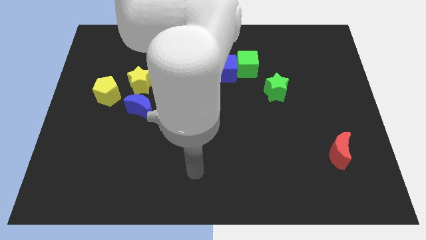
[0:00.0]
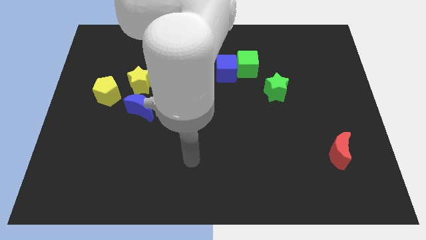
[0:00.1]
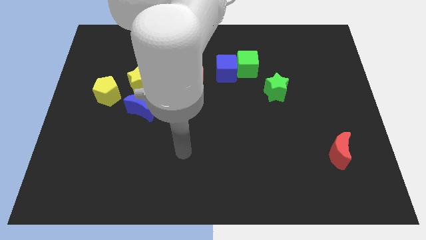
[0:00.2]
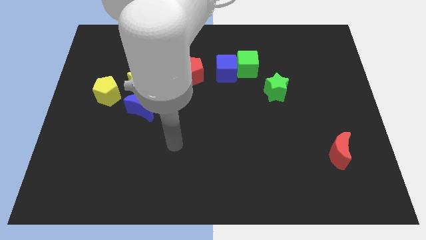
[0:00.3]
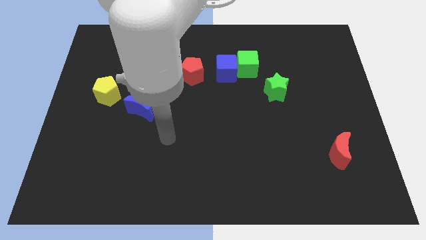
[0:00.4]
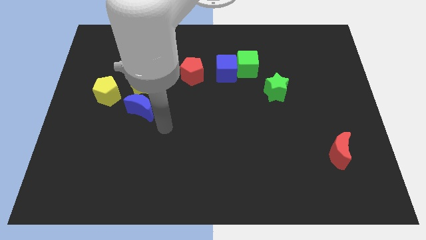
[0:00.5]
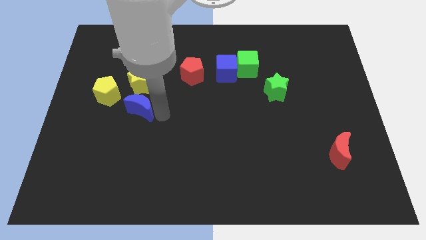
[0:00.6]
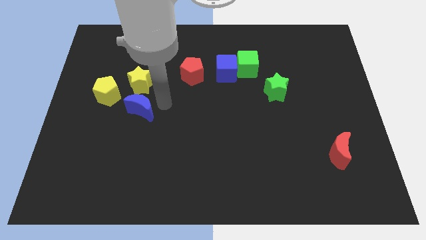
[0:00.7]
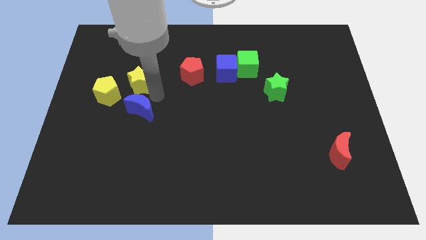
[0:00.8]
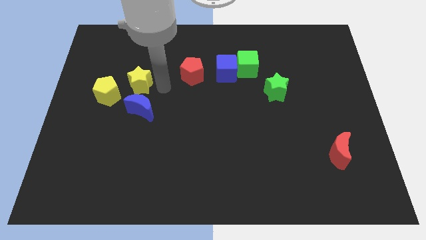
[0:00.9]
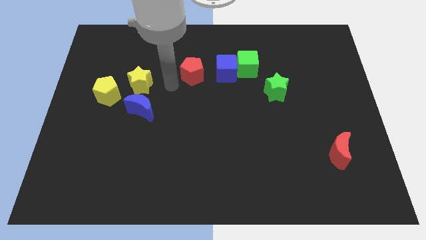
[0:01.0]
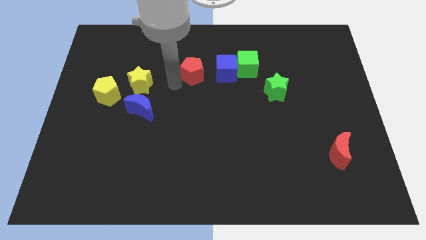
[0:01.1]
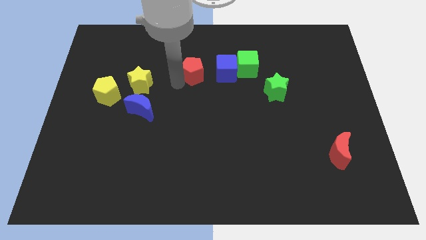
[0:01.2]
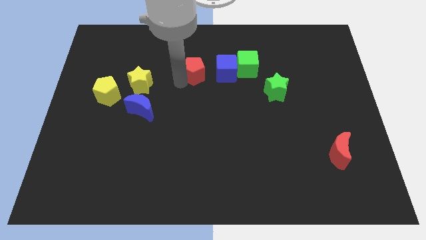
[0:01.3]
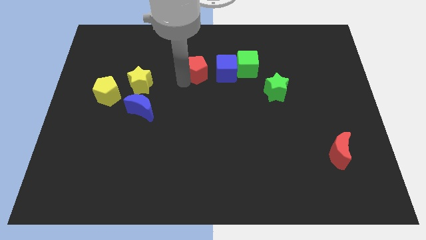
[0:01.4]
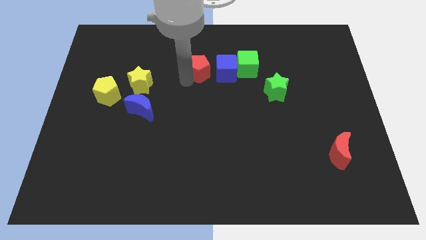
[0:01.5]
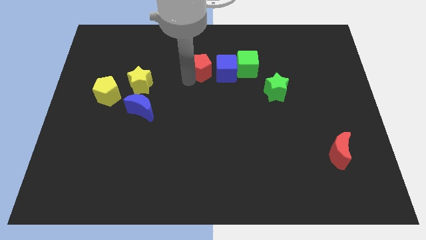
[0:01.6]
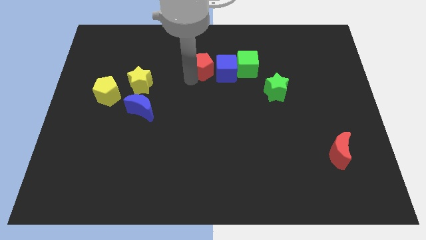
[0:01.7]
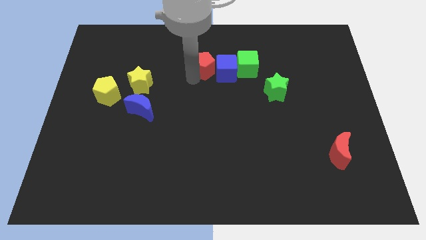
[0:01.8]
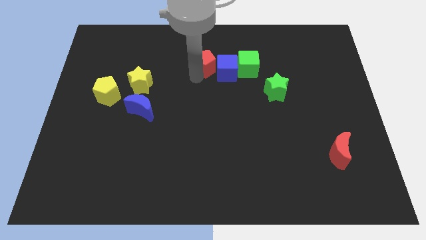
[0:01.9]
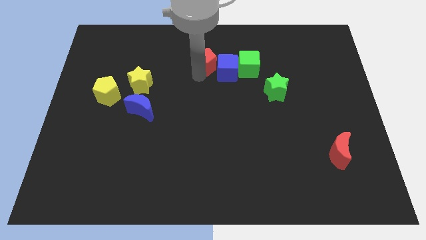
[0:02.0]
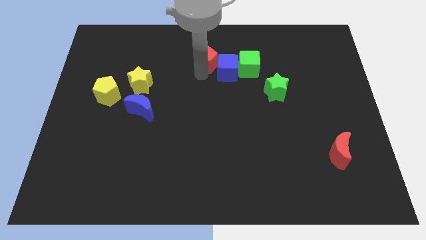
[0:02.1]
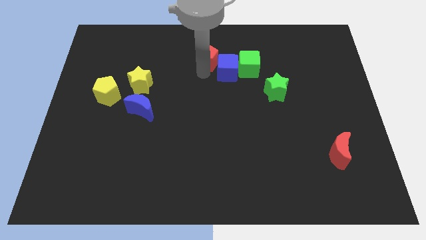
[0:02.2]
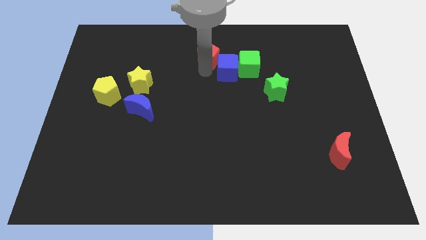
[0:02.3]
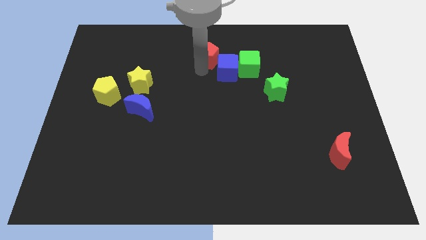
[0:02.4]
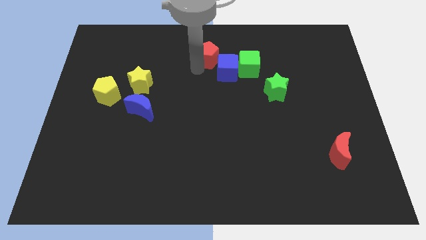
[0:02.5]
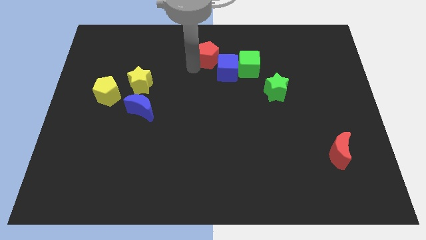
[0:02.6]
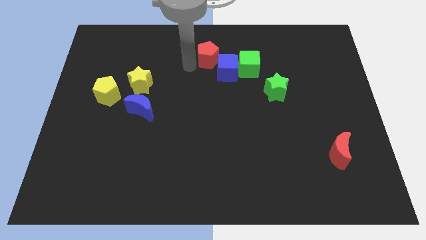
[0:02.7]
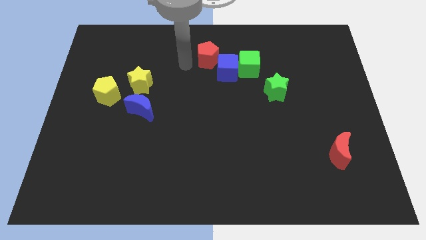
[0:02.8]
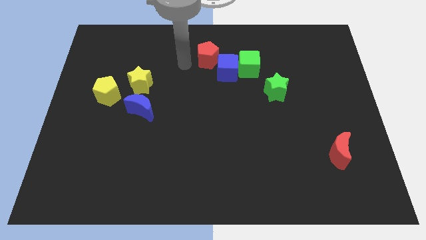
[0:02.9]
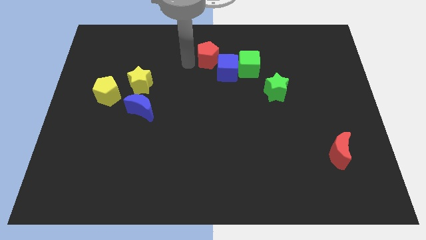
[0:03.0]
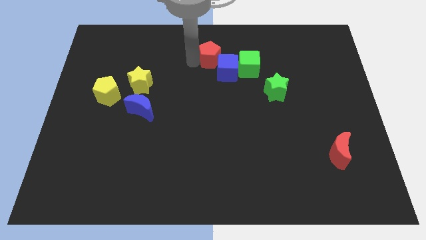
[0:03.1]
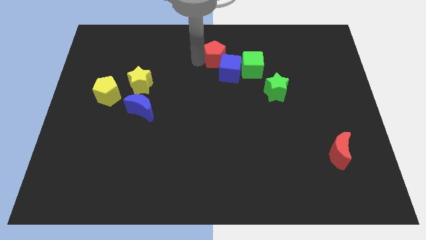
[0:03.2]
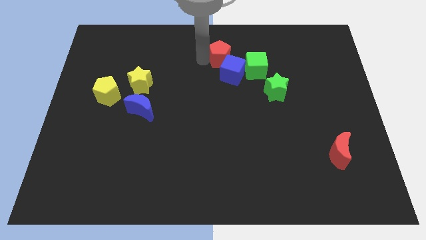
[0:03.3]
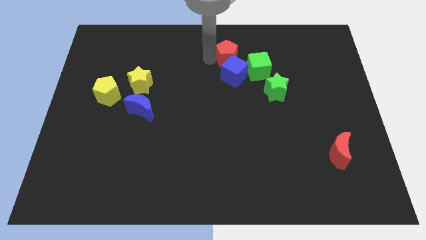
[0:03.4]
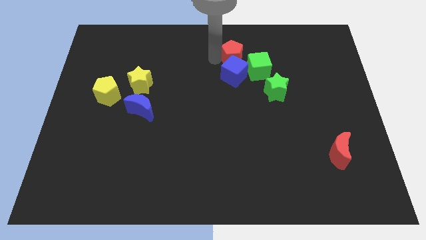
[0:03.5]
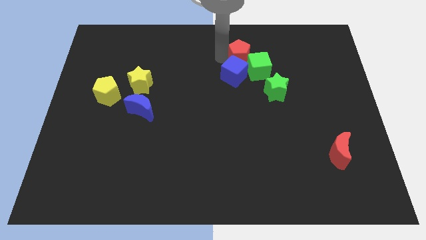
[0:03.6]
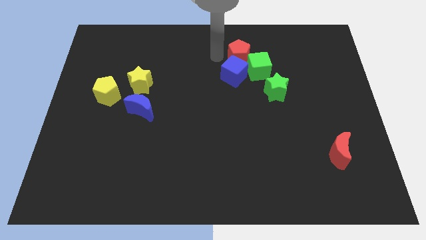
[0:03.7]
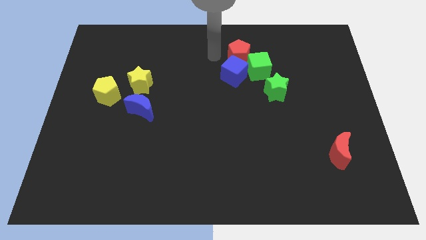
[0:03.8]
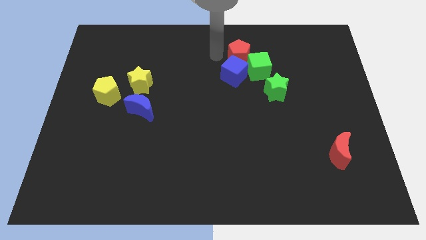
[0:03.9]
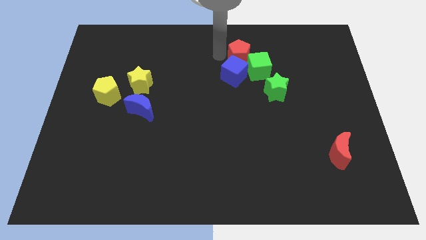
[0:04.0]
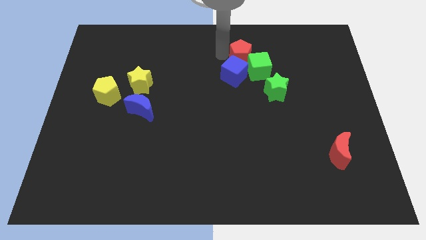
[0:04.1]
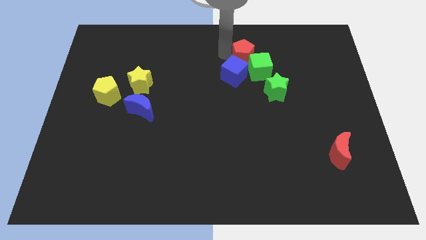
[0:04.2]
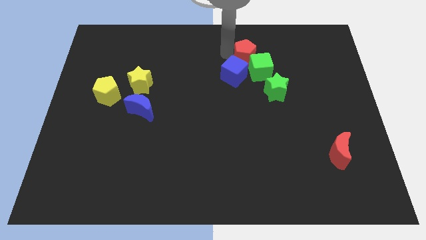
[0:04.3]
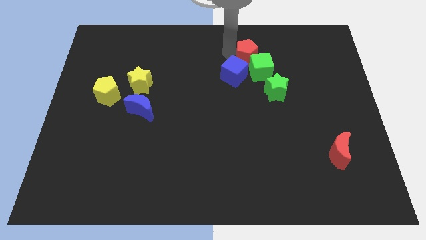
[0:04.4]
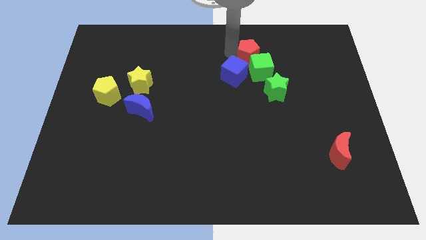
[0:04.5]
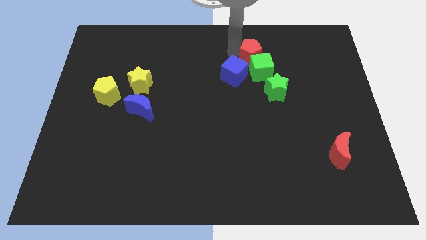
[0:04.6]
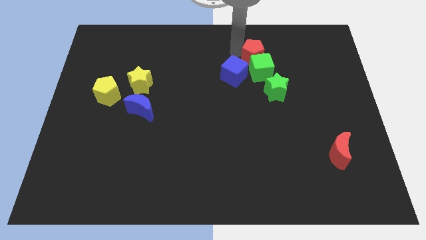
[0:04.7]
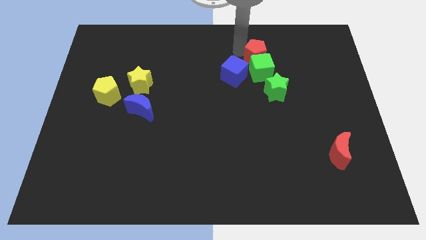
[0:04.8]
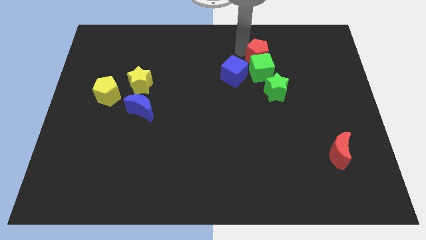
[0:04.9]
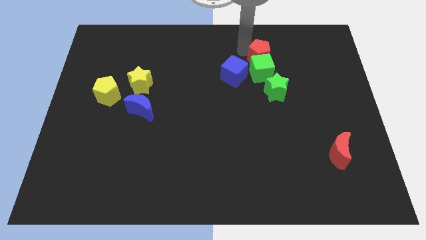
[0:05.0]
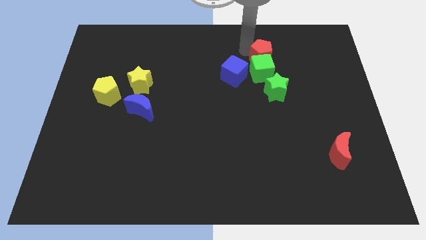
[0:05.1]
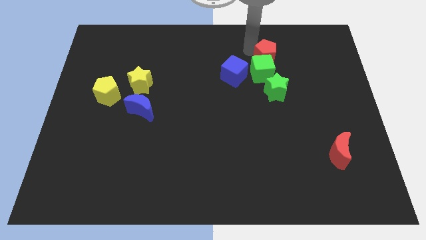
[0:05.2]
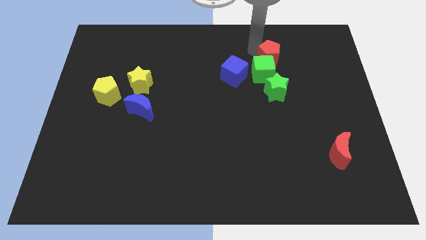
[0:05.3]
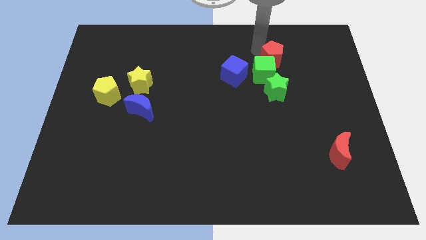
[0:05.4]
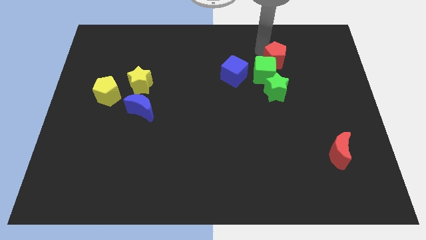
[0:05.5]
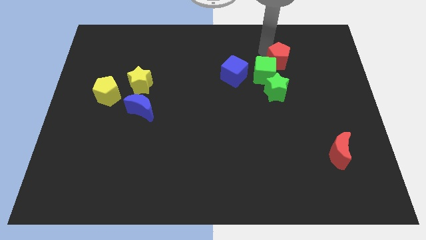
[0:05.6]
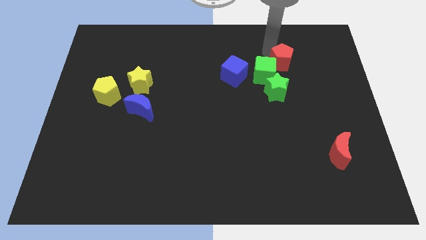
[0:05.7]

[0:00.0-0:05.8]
put the red pentagon just right of the green cube

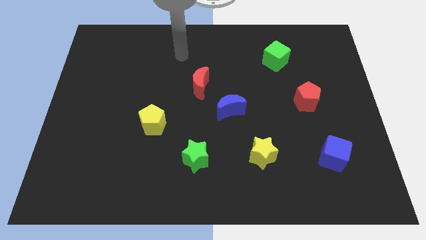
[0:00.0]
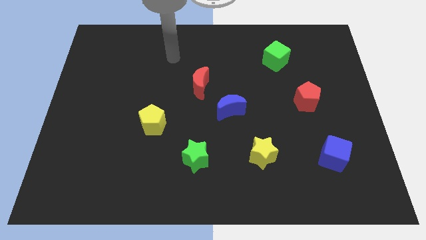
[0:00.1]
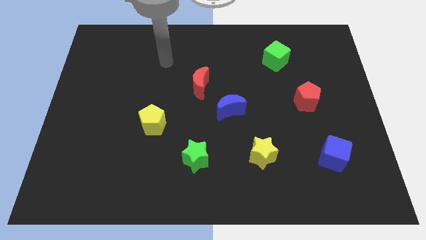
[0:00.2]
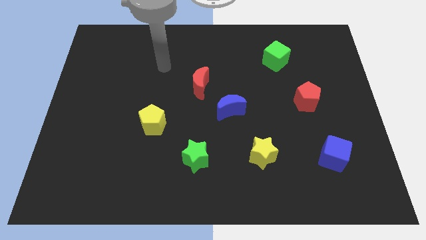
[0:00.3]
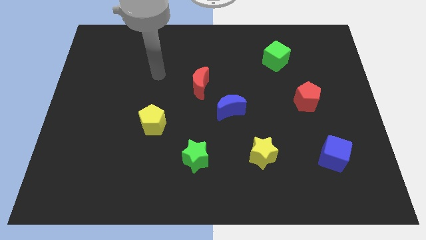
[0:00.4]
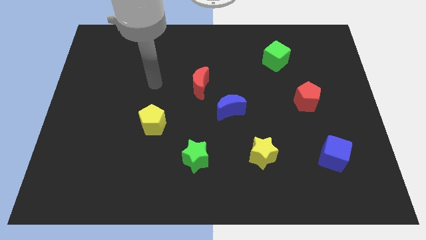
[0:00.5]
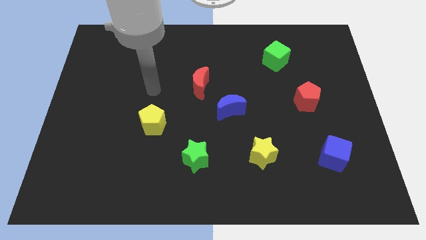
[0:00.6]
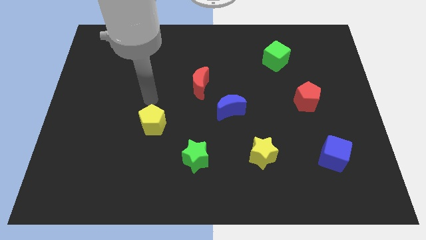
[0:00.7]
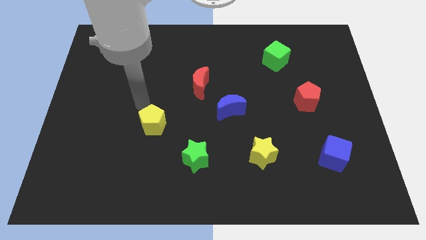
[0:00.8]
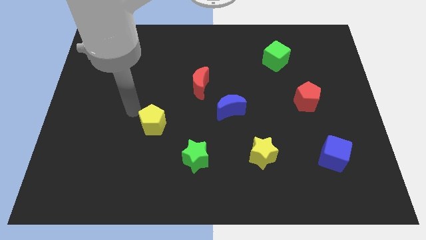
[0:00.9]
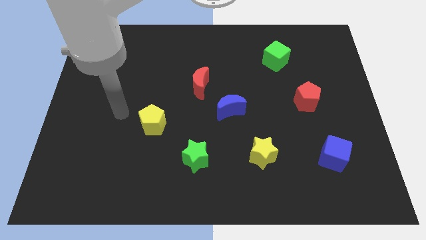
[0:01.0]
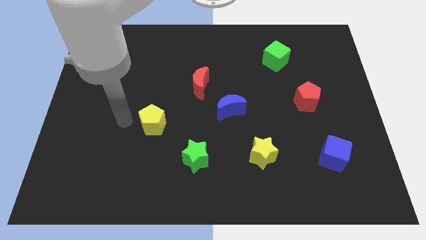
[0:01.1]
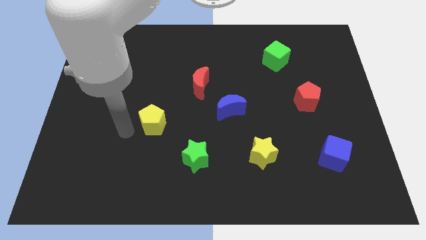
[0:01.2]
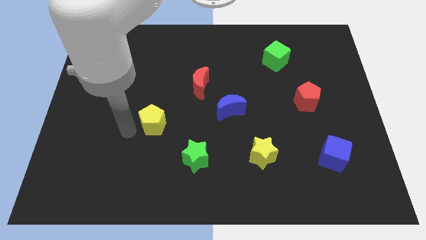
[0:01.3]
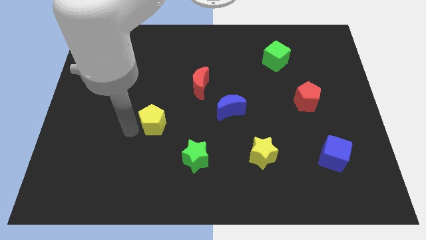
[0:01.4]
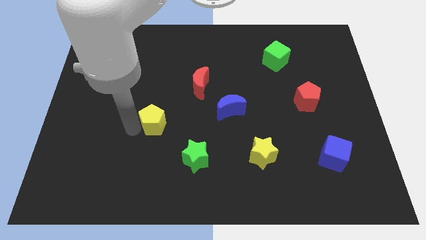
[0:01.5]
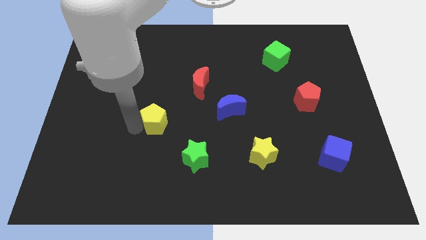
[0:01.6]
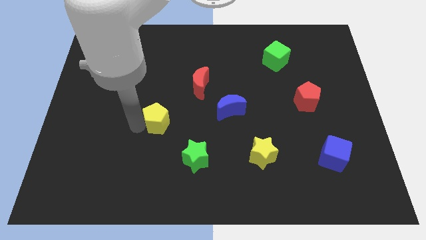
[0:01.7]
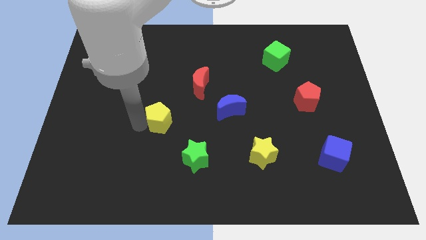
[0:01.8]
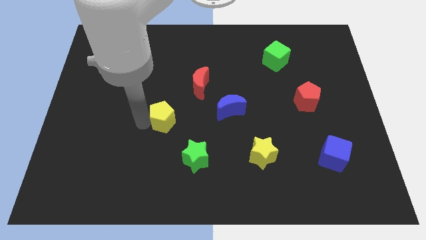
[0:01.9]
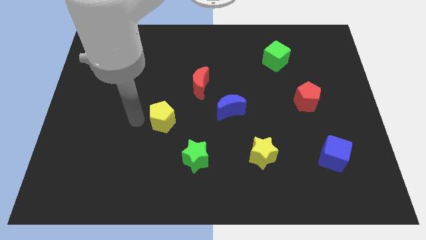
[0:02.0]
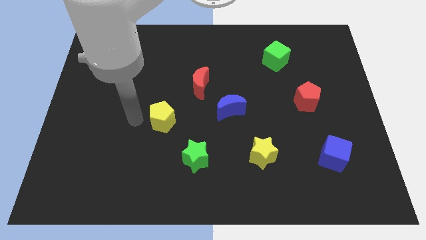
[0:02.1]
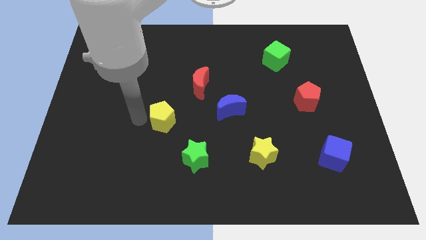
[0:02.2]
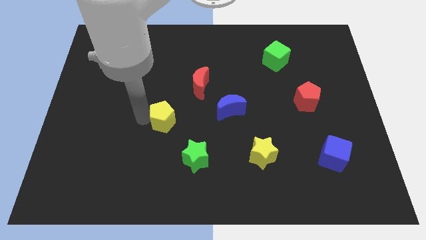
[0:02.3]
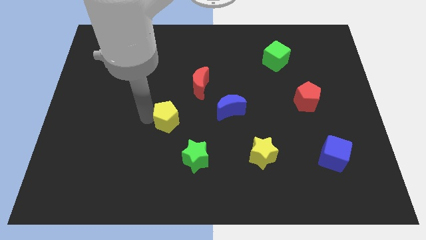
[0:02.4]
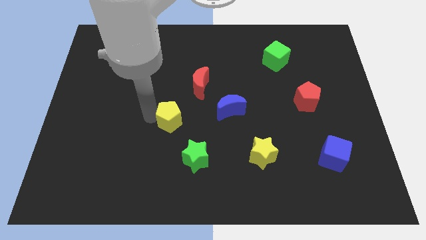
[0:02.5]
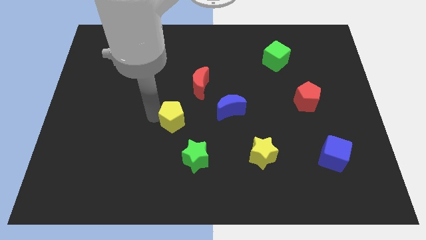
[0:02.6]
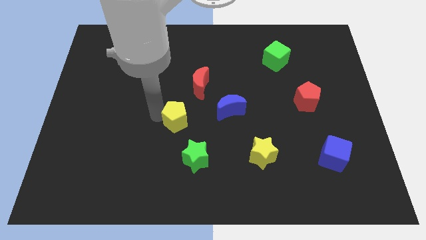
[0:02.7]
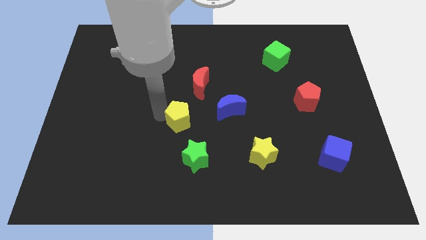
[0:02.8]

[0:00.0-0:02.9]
slide the yellow pentagon to the bottom side of the red moon
